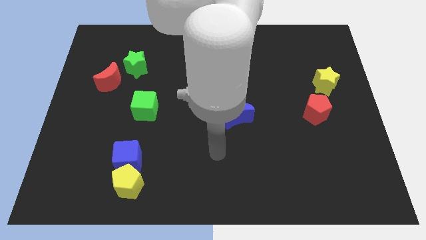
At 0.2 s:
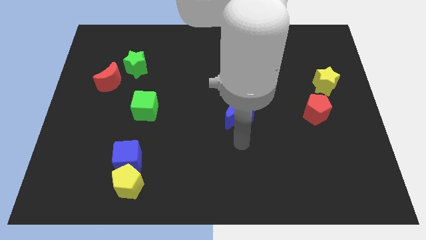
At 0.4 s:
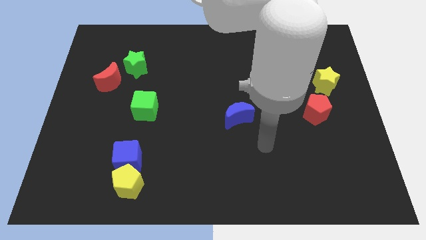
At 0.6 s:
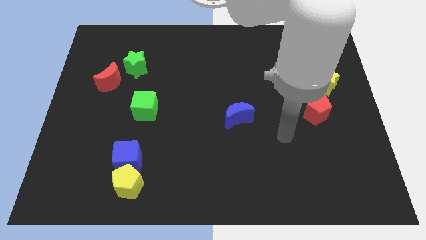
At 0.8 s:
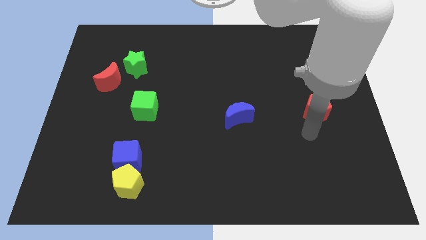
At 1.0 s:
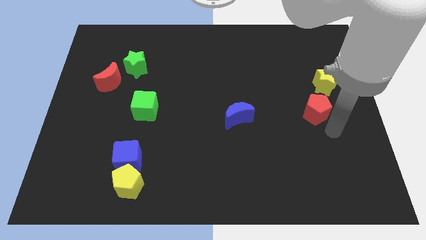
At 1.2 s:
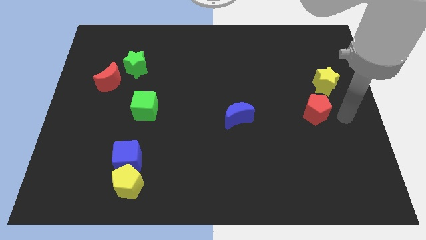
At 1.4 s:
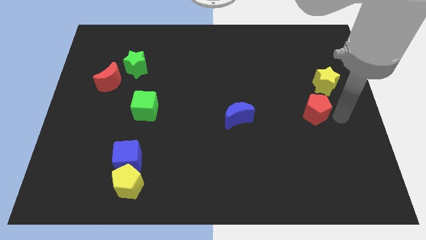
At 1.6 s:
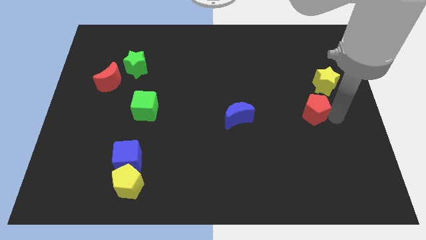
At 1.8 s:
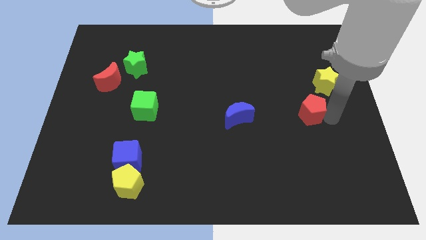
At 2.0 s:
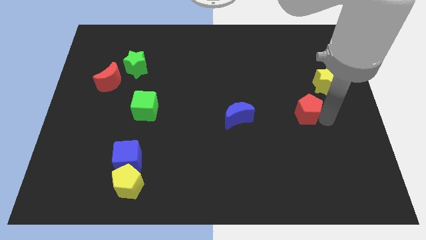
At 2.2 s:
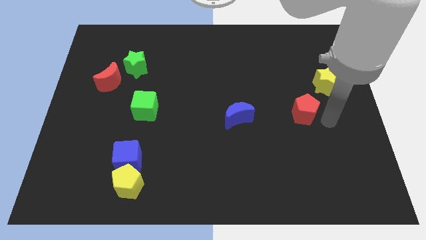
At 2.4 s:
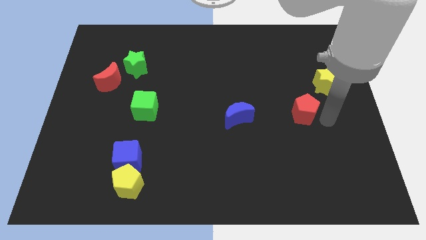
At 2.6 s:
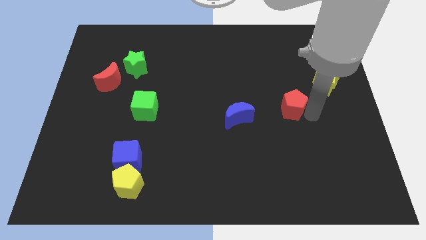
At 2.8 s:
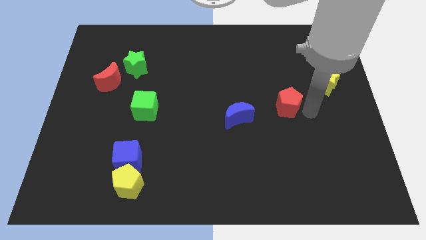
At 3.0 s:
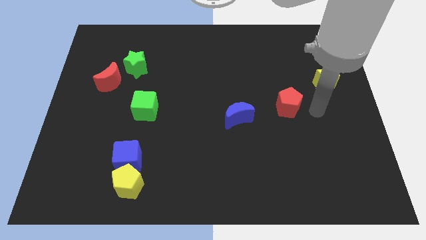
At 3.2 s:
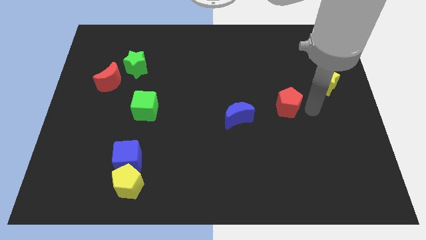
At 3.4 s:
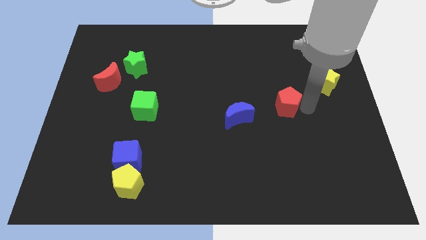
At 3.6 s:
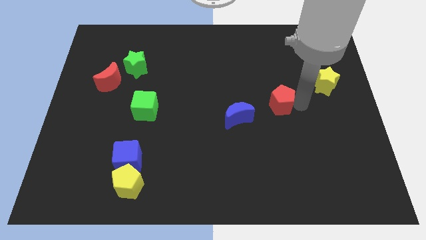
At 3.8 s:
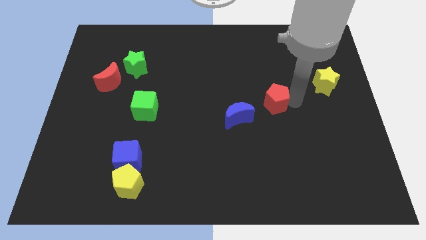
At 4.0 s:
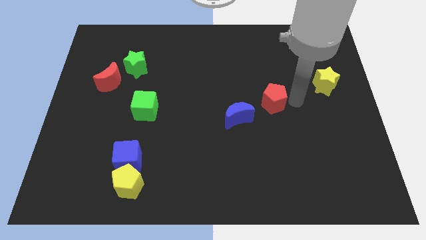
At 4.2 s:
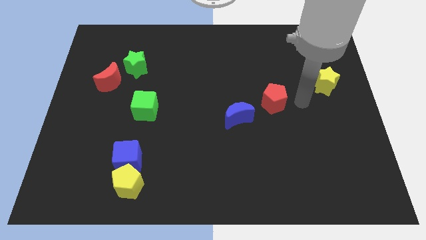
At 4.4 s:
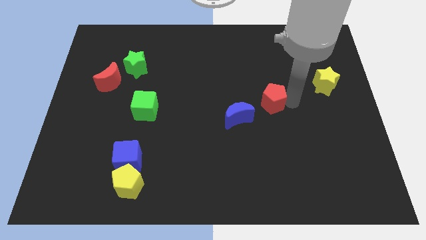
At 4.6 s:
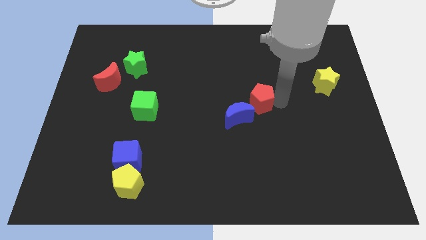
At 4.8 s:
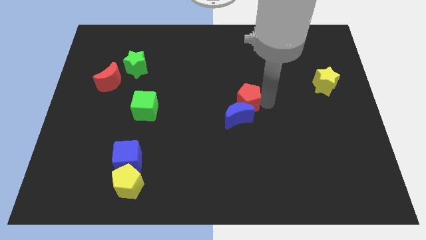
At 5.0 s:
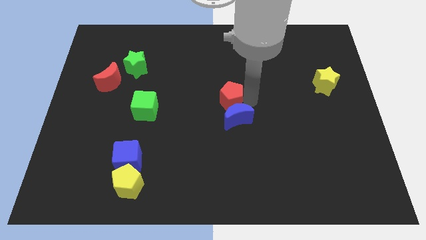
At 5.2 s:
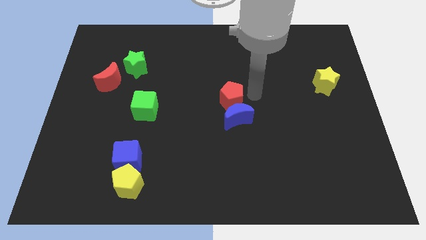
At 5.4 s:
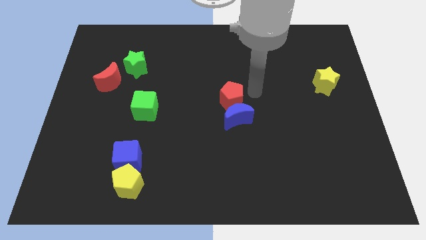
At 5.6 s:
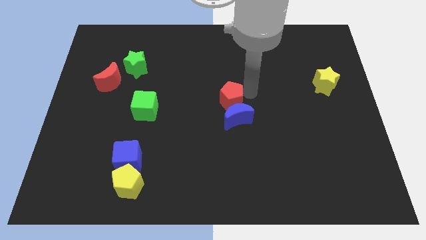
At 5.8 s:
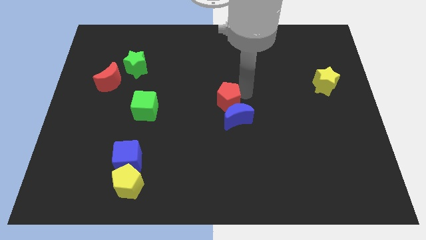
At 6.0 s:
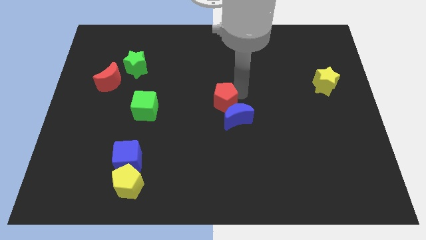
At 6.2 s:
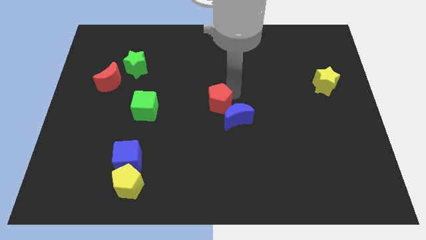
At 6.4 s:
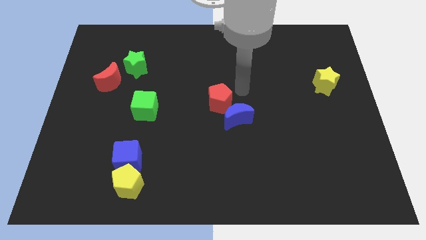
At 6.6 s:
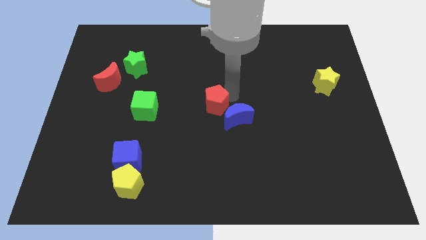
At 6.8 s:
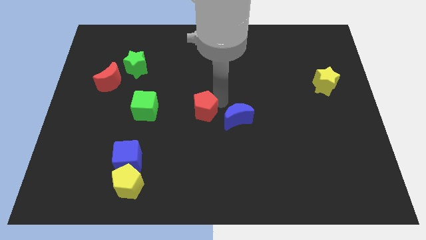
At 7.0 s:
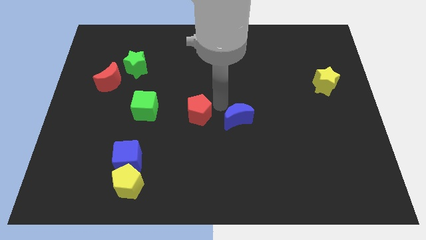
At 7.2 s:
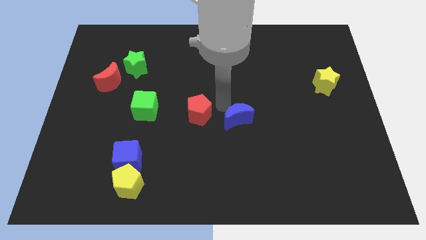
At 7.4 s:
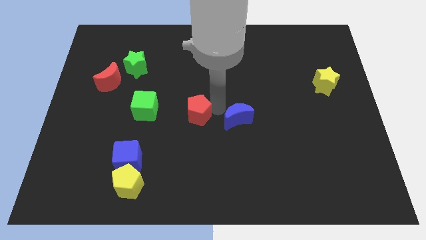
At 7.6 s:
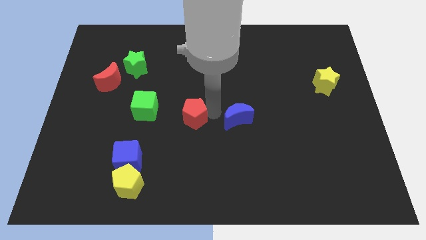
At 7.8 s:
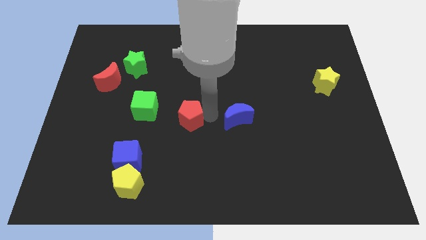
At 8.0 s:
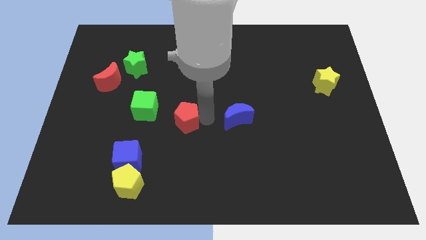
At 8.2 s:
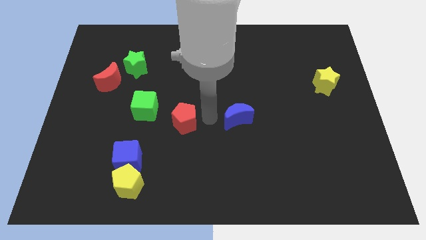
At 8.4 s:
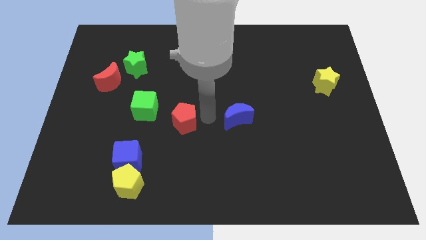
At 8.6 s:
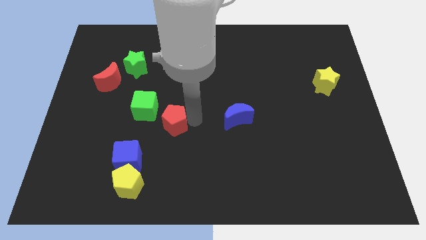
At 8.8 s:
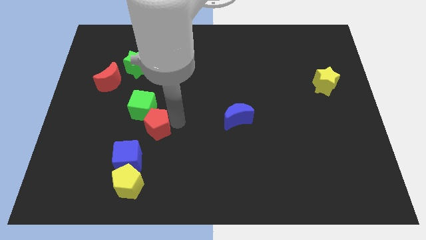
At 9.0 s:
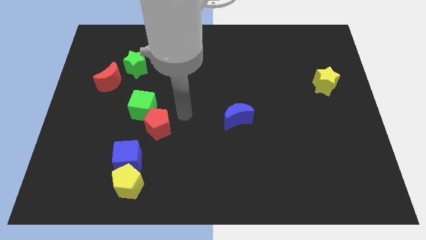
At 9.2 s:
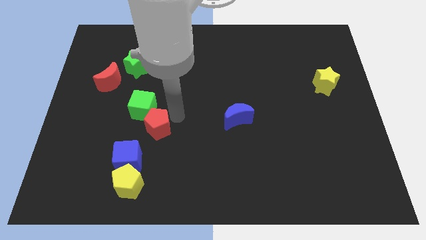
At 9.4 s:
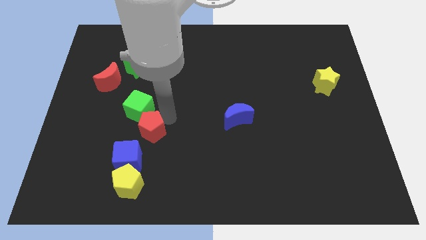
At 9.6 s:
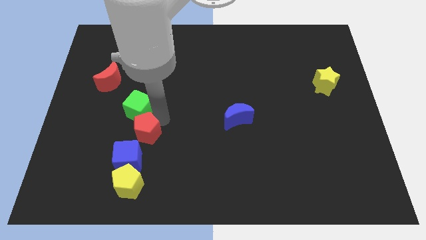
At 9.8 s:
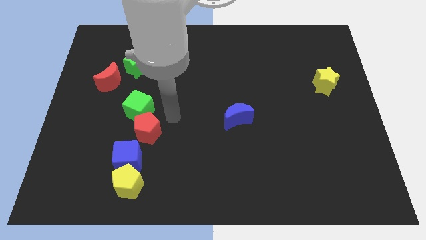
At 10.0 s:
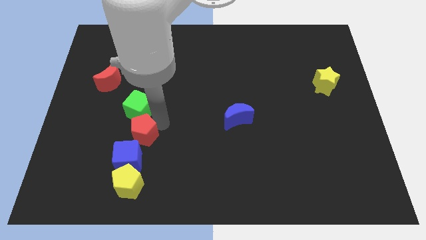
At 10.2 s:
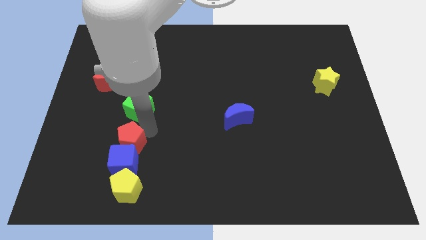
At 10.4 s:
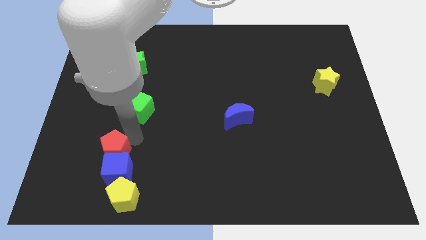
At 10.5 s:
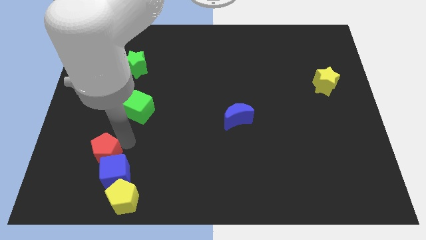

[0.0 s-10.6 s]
put the red pentagon to the top left side of the yellow pentagon

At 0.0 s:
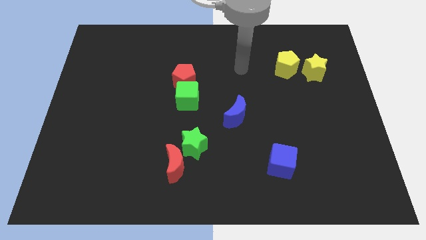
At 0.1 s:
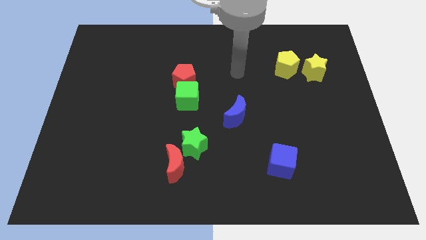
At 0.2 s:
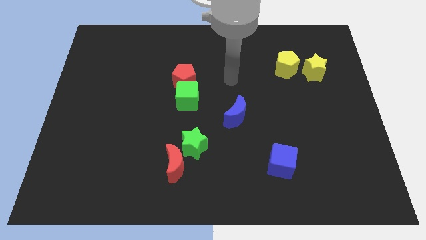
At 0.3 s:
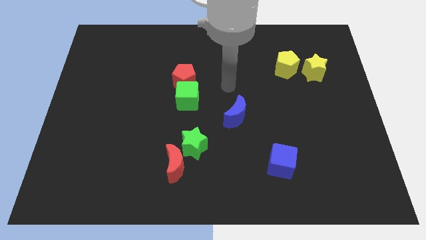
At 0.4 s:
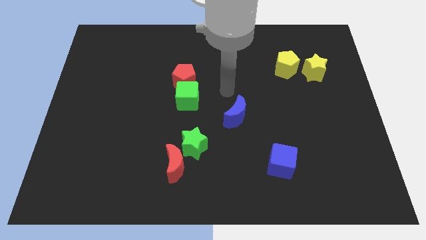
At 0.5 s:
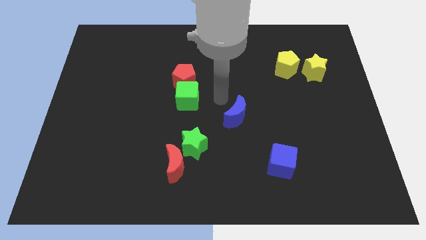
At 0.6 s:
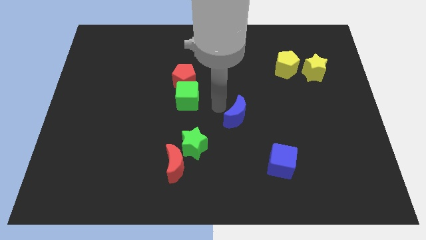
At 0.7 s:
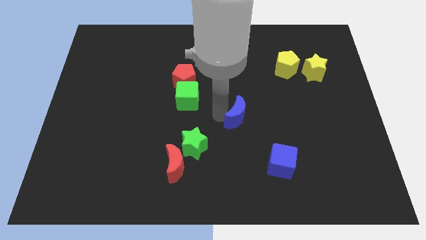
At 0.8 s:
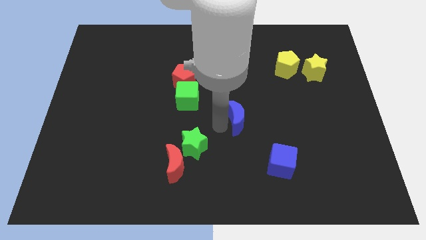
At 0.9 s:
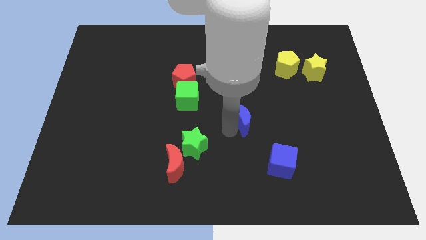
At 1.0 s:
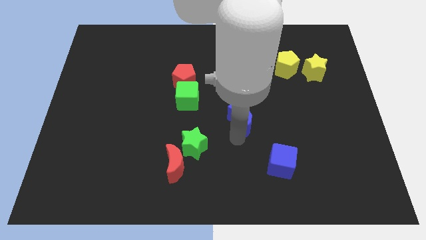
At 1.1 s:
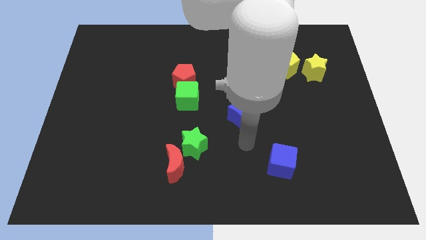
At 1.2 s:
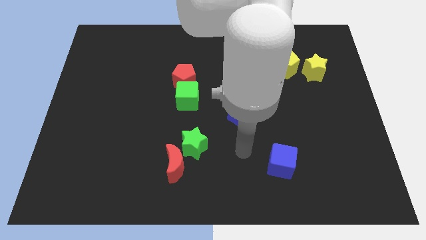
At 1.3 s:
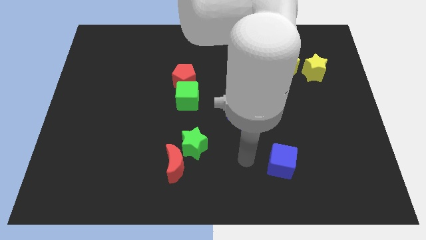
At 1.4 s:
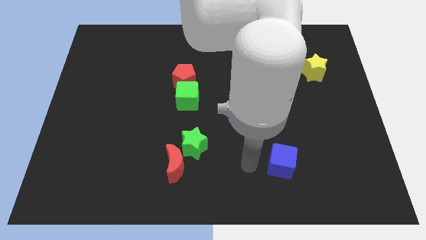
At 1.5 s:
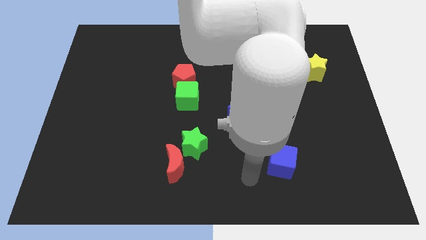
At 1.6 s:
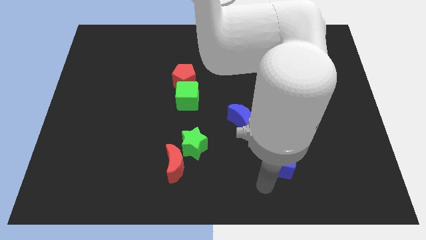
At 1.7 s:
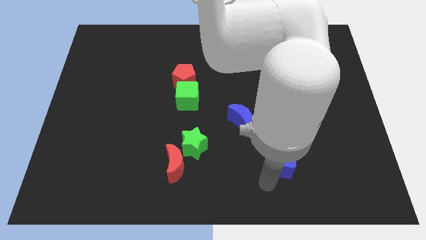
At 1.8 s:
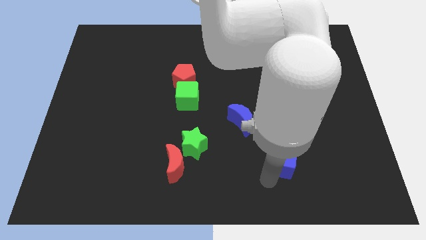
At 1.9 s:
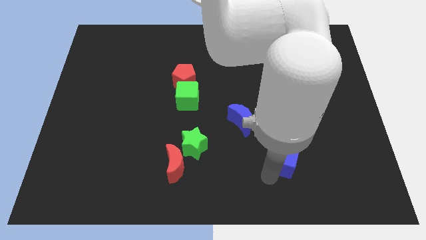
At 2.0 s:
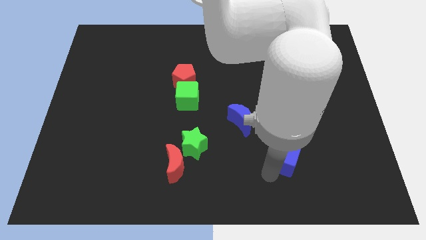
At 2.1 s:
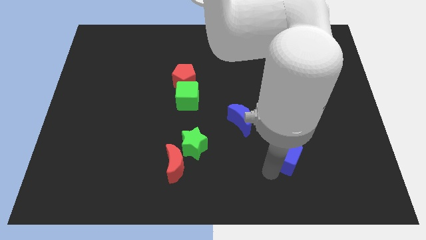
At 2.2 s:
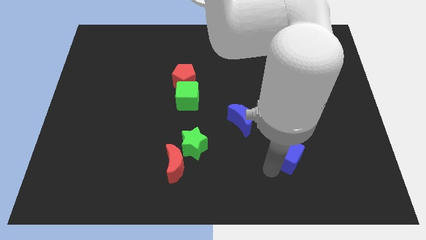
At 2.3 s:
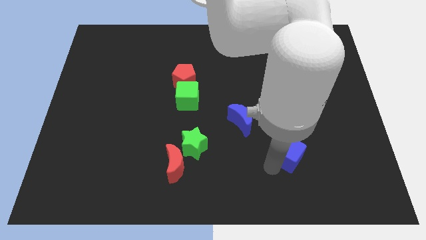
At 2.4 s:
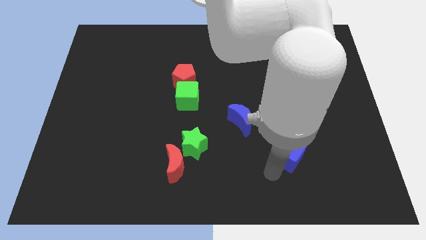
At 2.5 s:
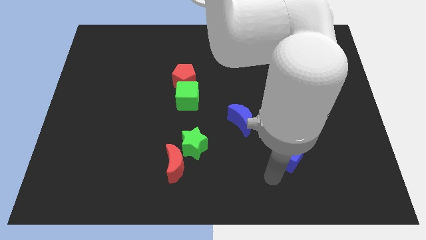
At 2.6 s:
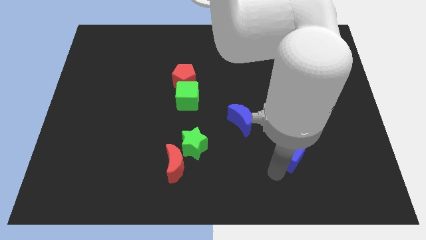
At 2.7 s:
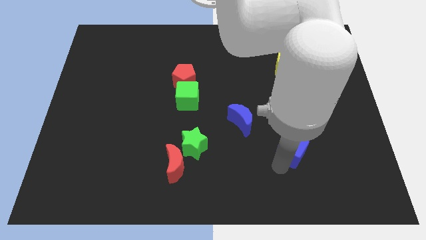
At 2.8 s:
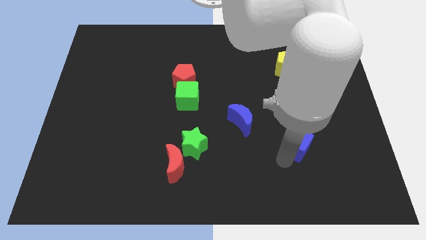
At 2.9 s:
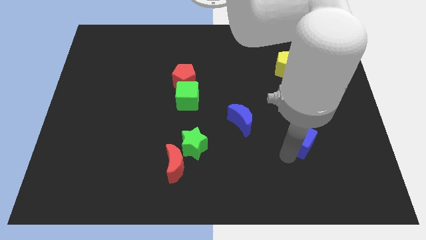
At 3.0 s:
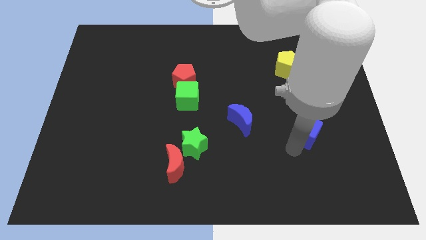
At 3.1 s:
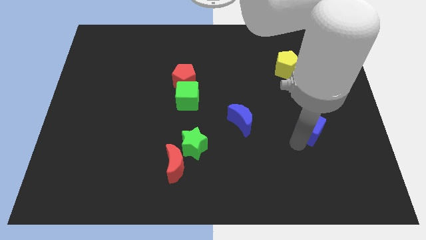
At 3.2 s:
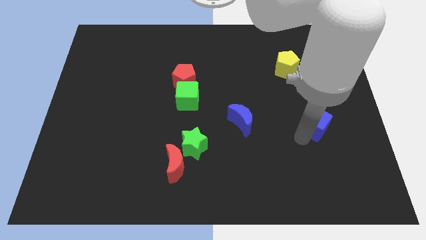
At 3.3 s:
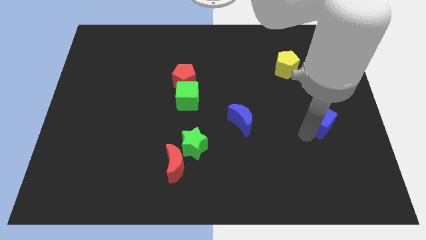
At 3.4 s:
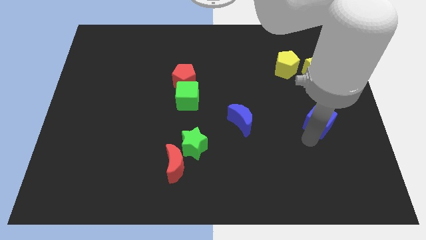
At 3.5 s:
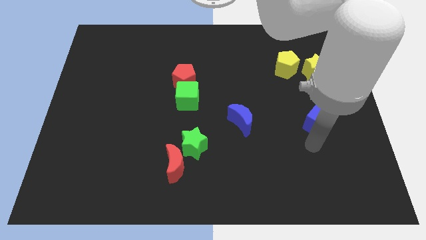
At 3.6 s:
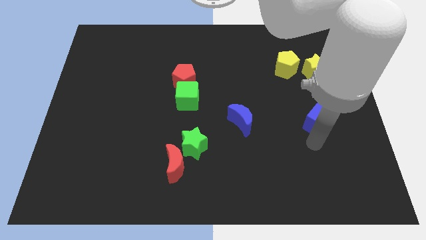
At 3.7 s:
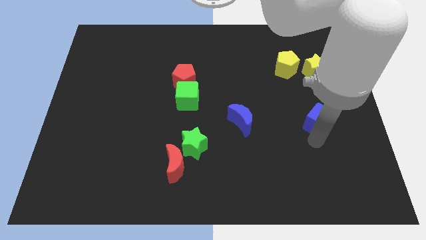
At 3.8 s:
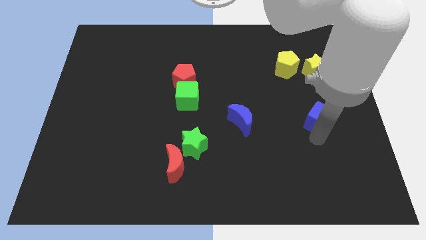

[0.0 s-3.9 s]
push the blue cube below the yellow star
